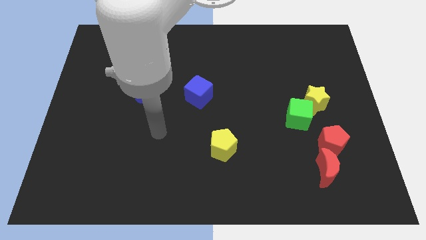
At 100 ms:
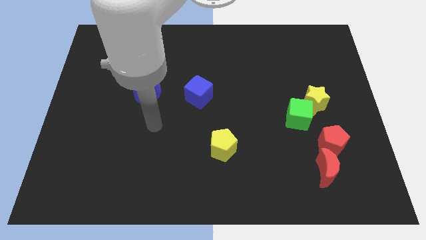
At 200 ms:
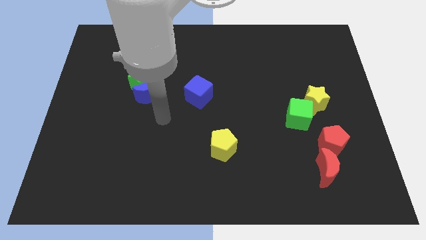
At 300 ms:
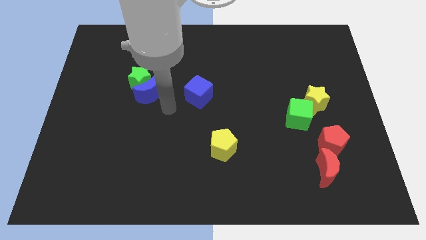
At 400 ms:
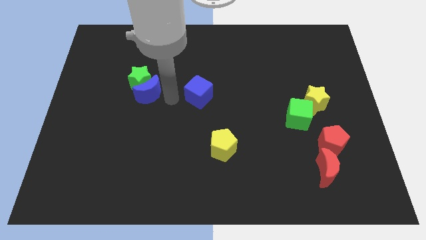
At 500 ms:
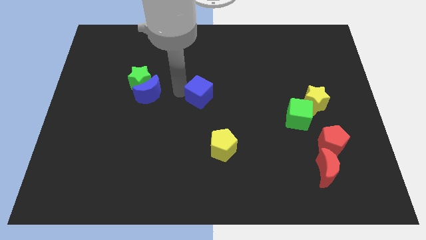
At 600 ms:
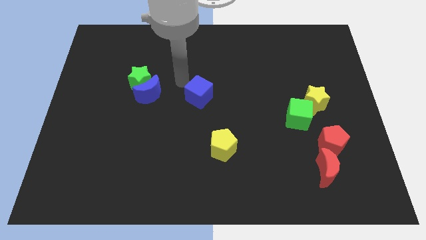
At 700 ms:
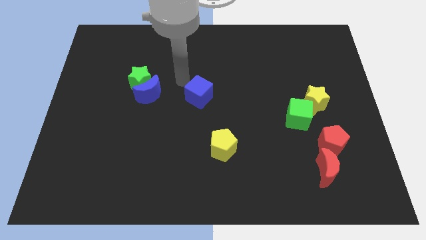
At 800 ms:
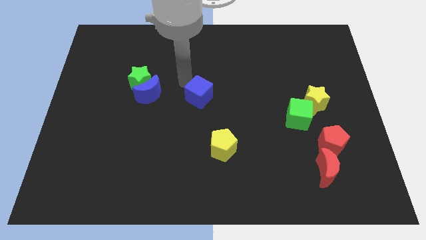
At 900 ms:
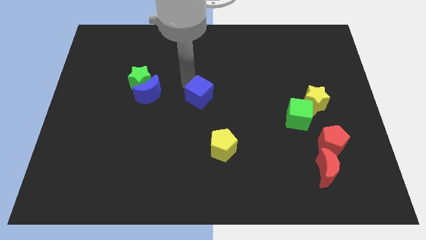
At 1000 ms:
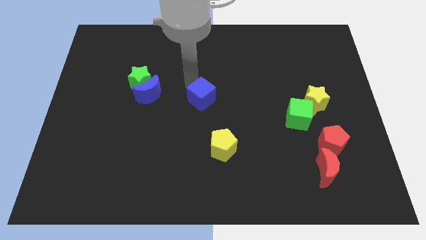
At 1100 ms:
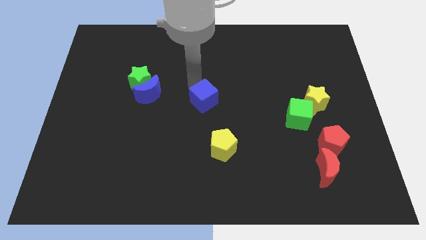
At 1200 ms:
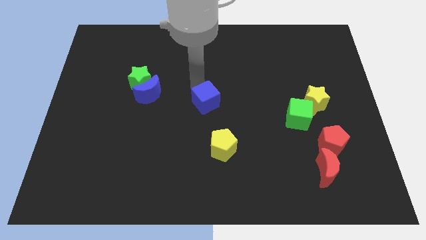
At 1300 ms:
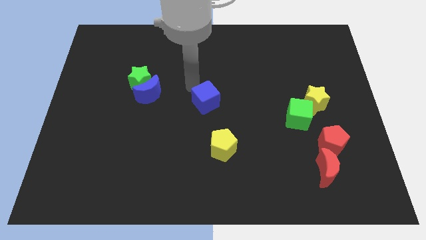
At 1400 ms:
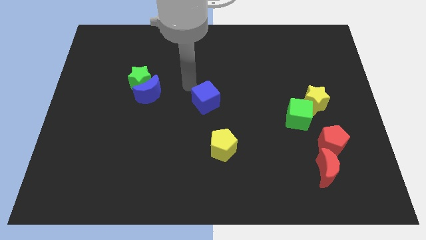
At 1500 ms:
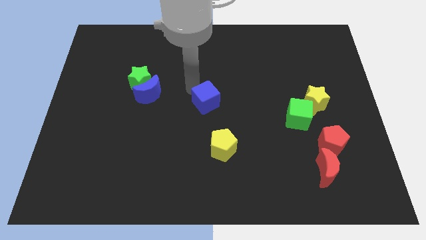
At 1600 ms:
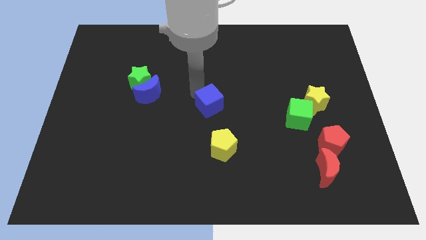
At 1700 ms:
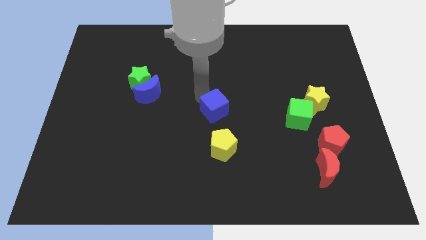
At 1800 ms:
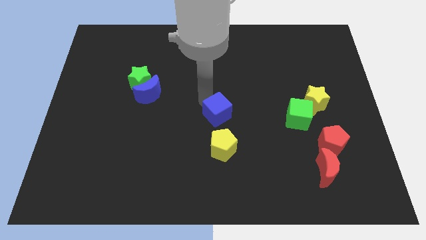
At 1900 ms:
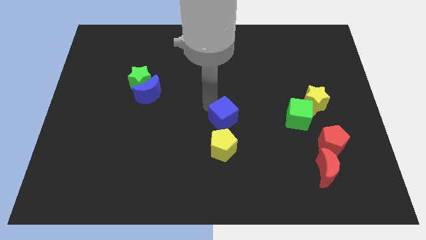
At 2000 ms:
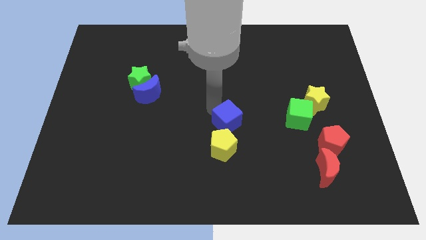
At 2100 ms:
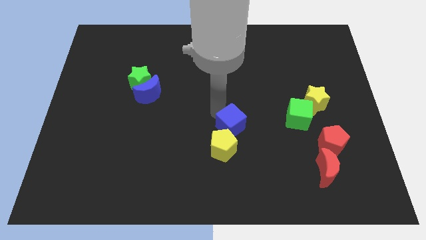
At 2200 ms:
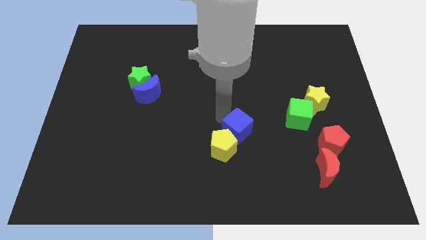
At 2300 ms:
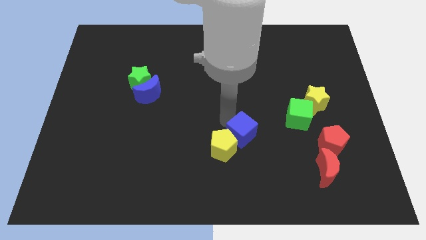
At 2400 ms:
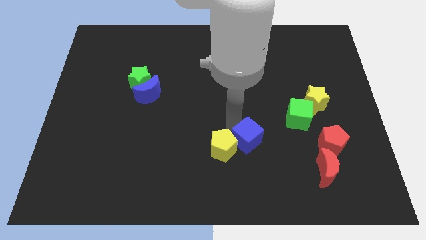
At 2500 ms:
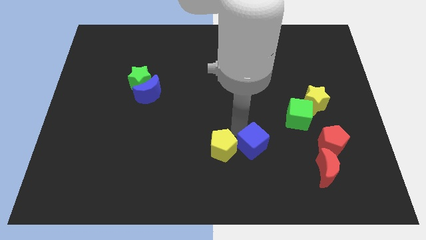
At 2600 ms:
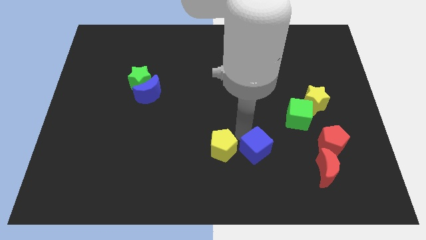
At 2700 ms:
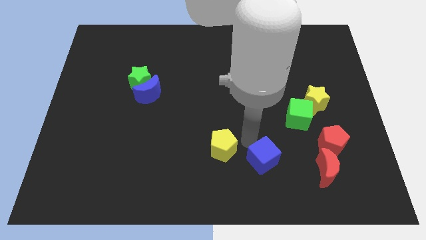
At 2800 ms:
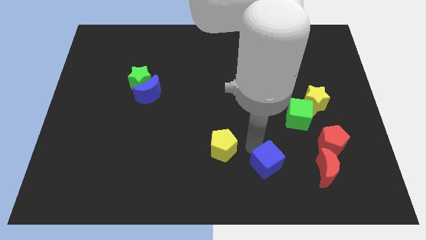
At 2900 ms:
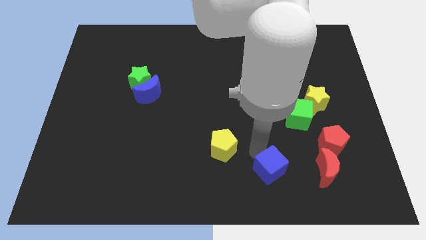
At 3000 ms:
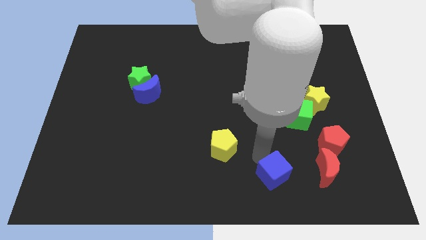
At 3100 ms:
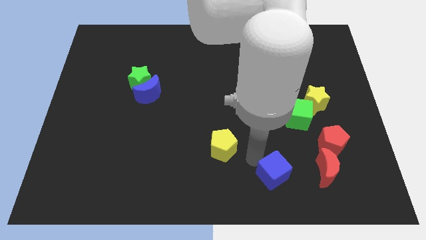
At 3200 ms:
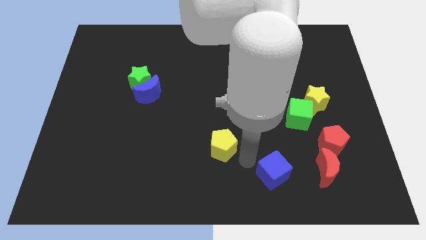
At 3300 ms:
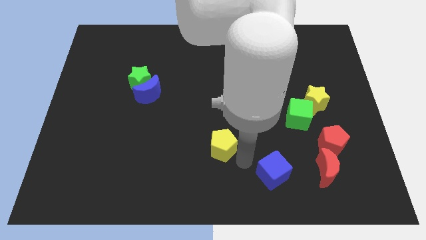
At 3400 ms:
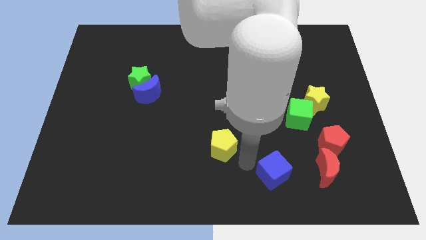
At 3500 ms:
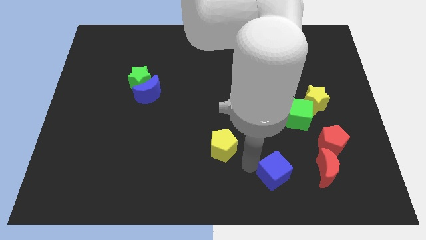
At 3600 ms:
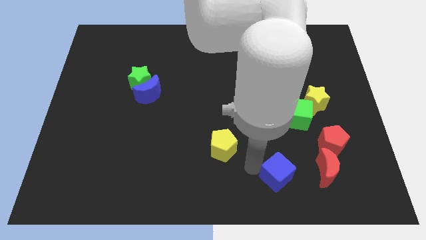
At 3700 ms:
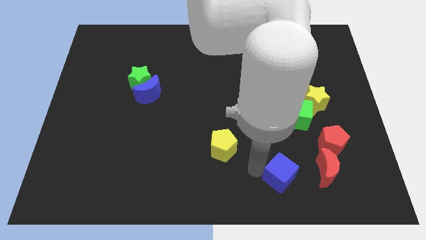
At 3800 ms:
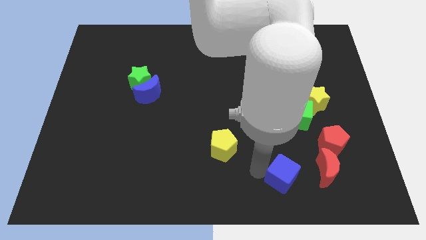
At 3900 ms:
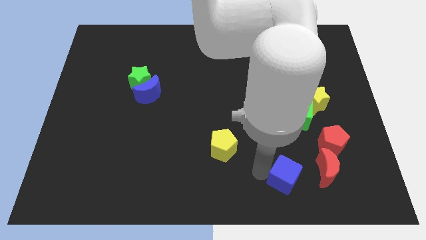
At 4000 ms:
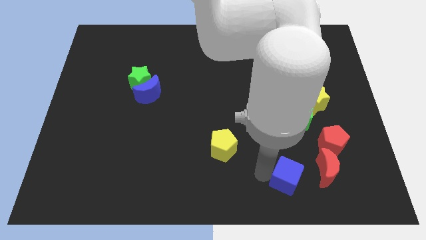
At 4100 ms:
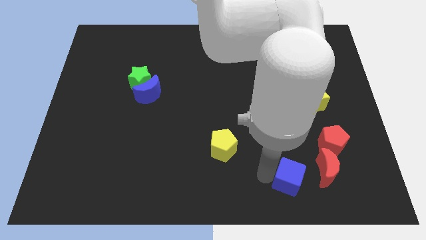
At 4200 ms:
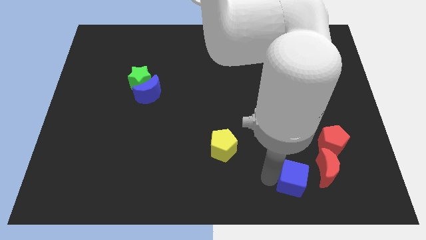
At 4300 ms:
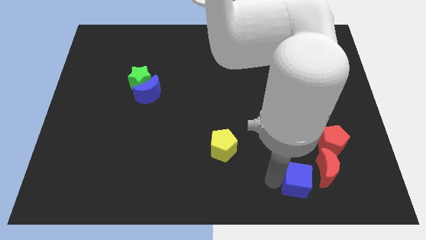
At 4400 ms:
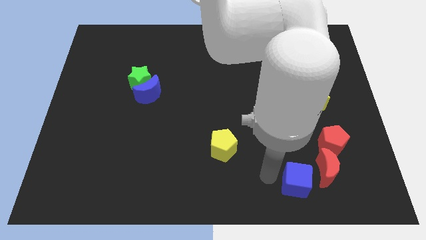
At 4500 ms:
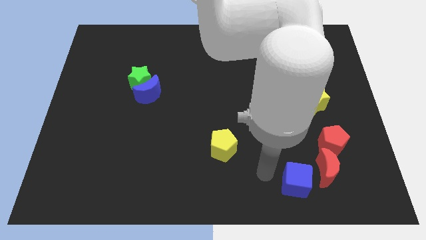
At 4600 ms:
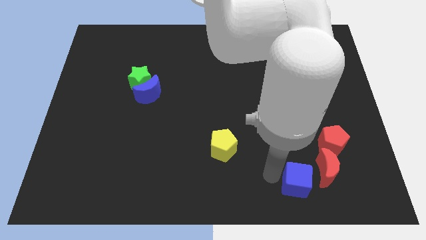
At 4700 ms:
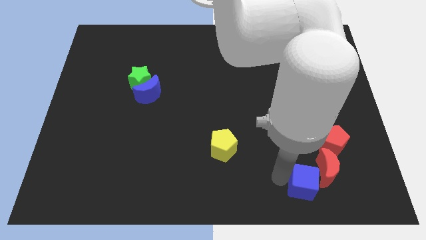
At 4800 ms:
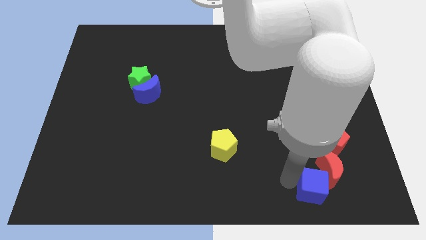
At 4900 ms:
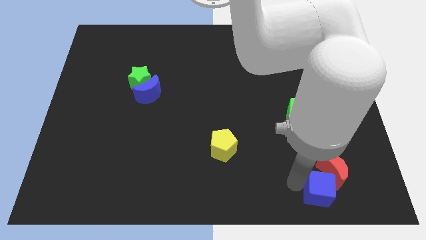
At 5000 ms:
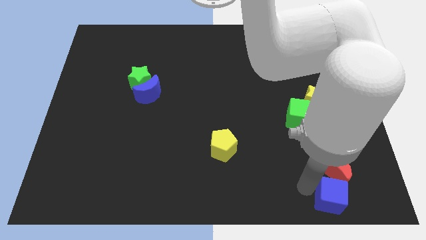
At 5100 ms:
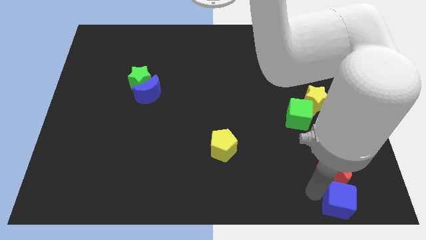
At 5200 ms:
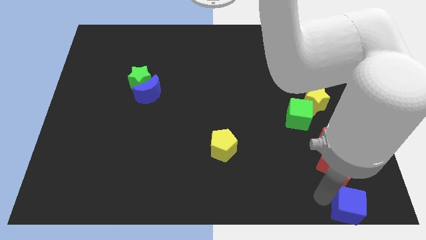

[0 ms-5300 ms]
slide the blue cube to the bottom right
